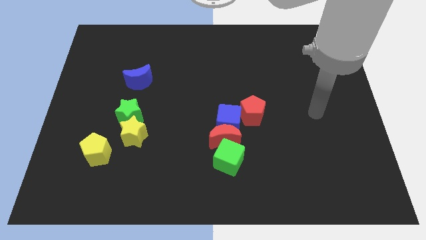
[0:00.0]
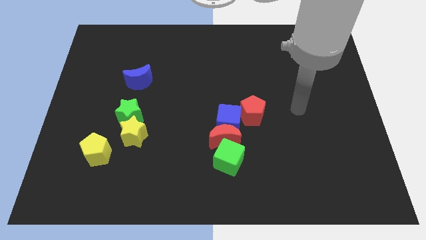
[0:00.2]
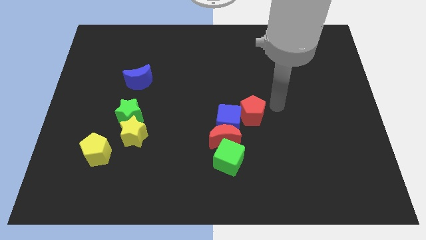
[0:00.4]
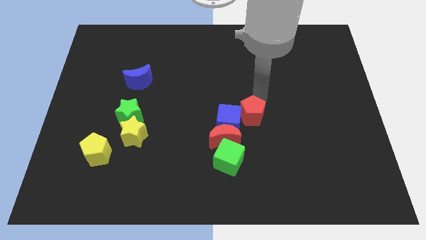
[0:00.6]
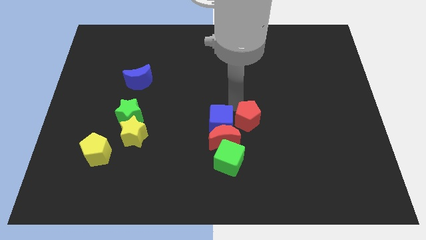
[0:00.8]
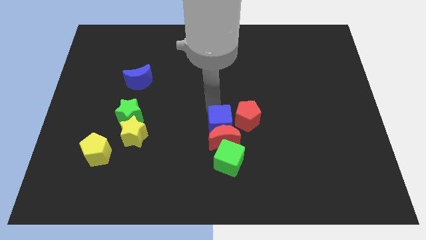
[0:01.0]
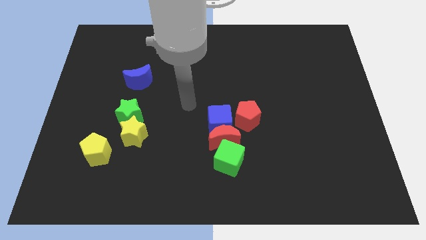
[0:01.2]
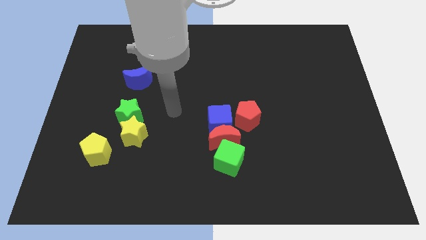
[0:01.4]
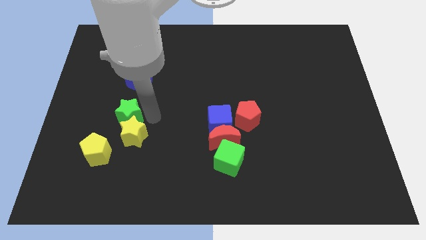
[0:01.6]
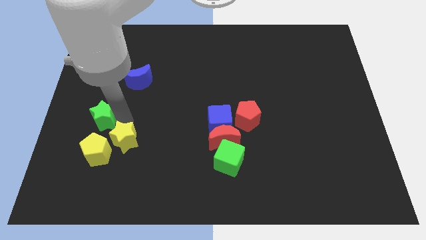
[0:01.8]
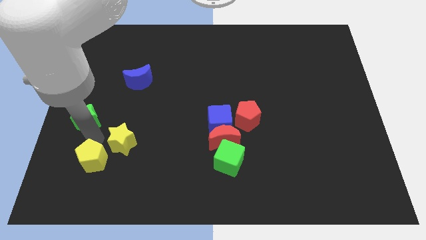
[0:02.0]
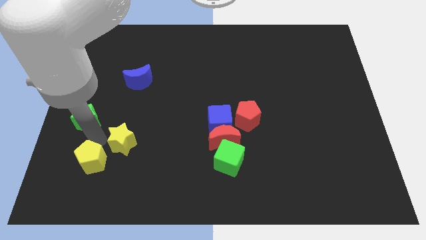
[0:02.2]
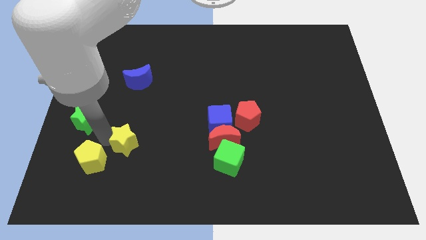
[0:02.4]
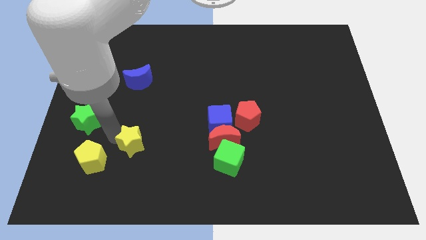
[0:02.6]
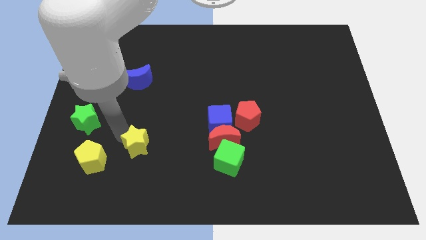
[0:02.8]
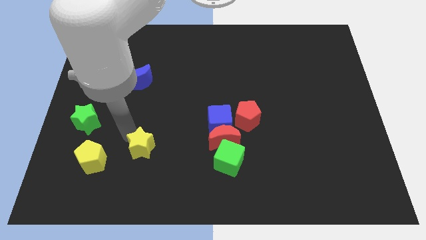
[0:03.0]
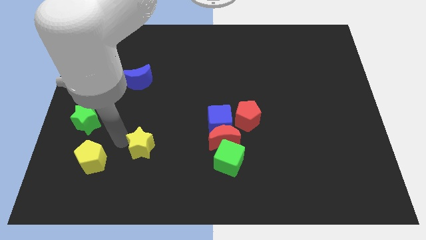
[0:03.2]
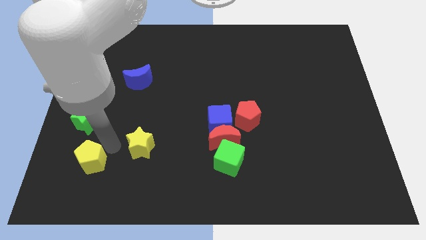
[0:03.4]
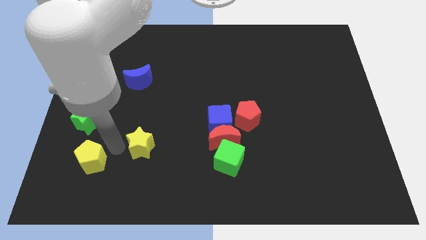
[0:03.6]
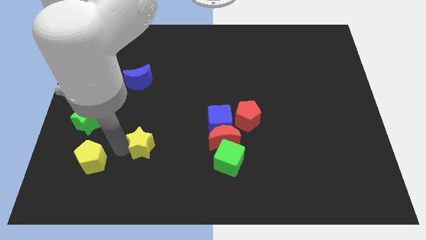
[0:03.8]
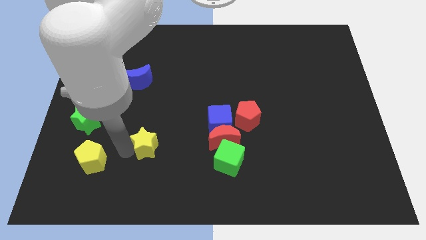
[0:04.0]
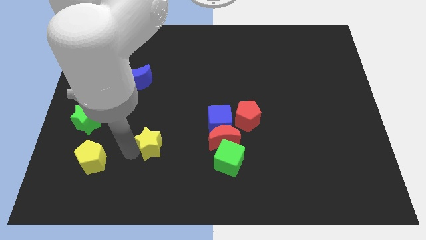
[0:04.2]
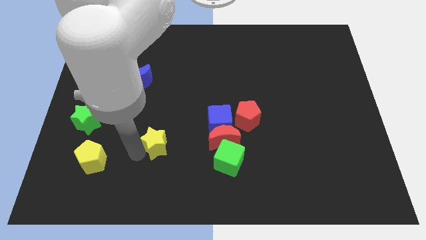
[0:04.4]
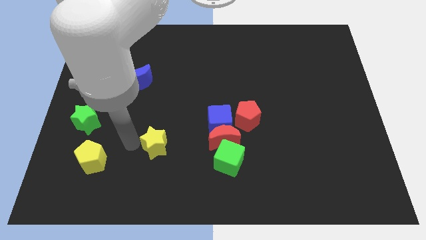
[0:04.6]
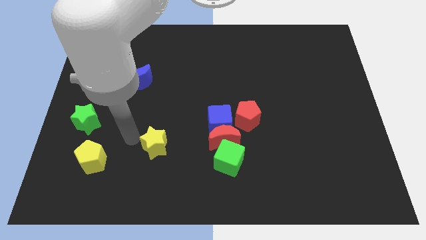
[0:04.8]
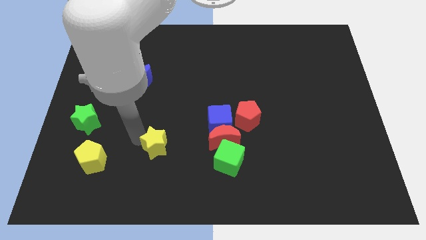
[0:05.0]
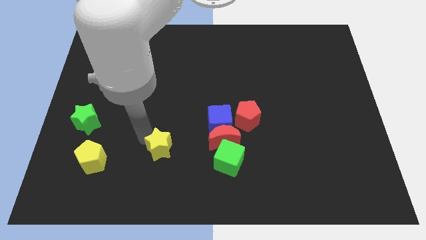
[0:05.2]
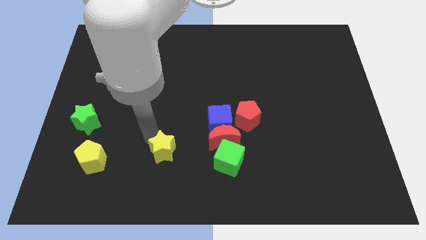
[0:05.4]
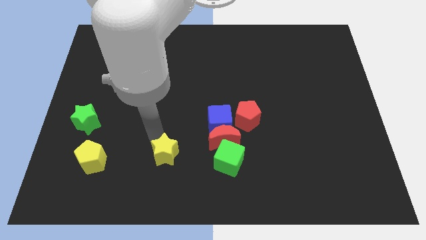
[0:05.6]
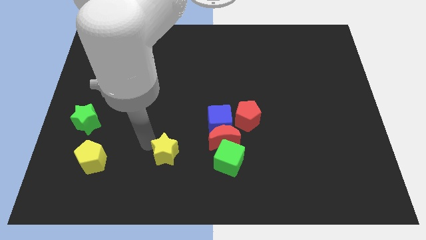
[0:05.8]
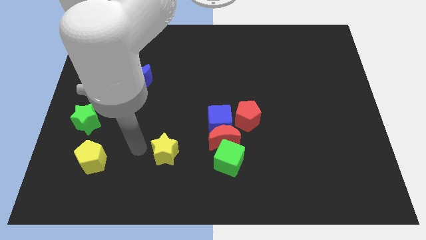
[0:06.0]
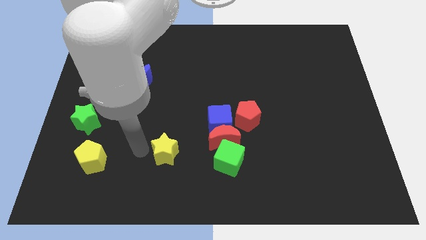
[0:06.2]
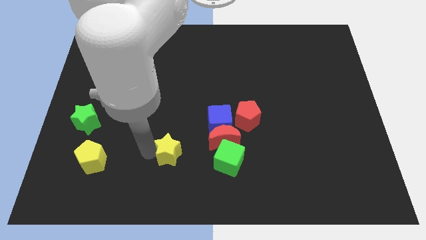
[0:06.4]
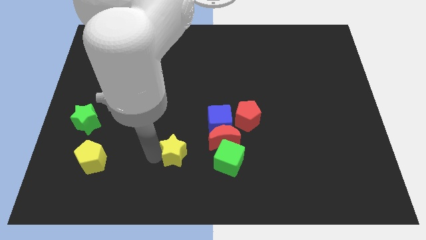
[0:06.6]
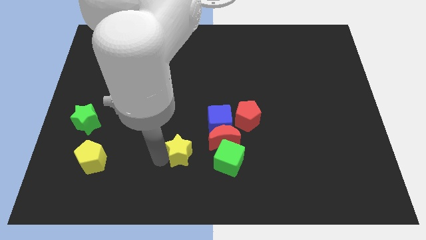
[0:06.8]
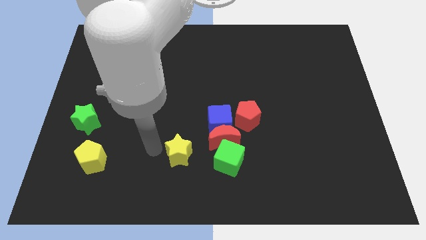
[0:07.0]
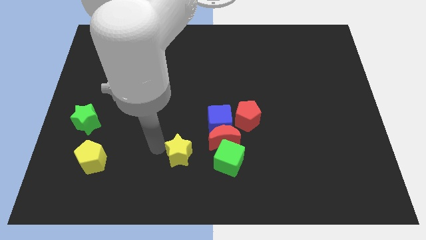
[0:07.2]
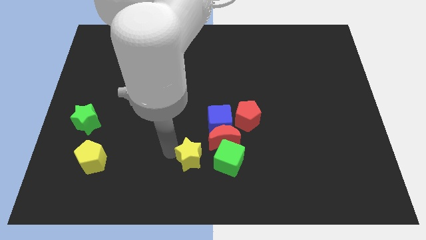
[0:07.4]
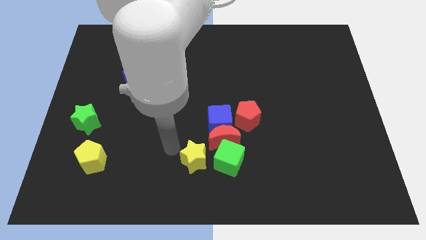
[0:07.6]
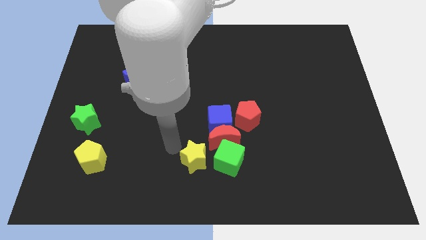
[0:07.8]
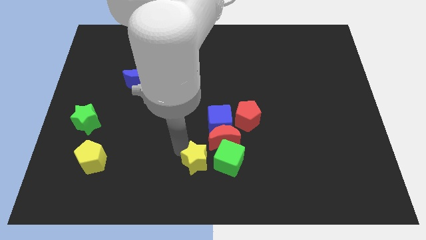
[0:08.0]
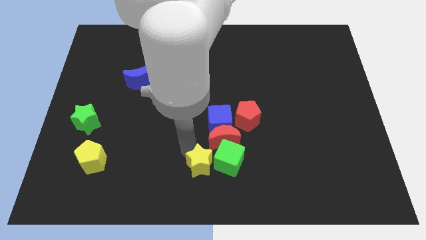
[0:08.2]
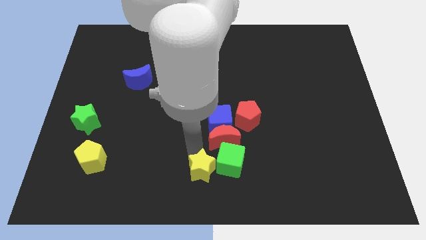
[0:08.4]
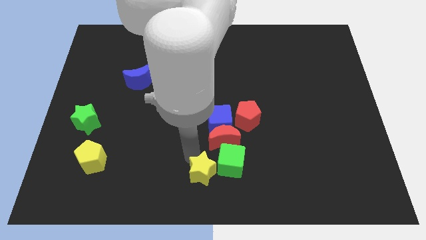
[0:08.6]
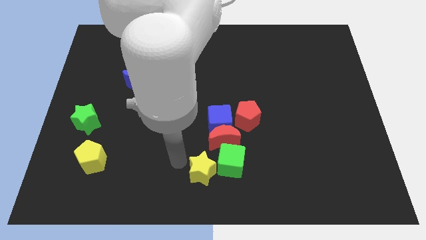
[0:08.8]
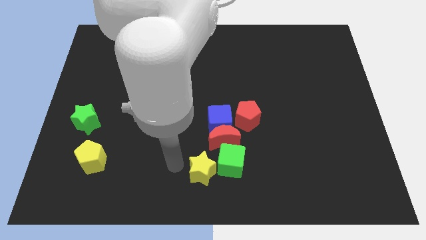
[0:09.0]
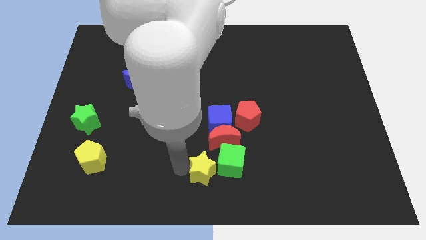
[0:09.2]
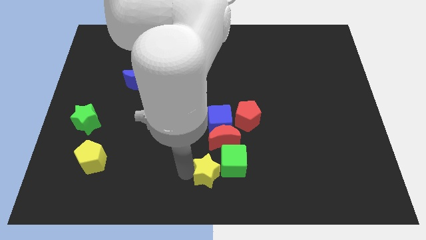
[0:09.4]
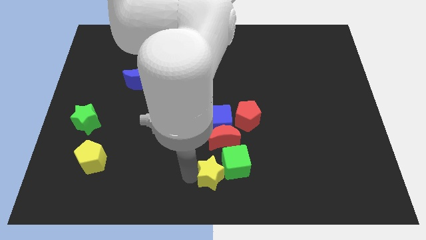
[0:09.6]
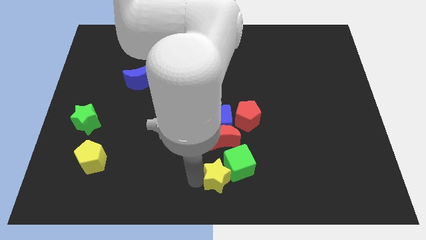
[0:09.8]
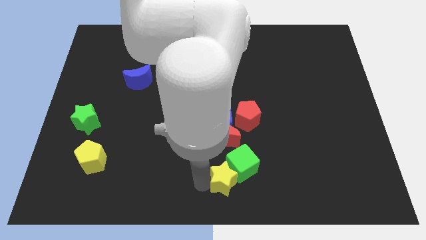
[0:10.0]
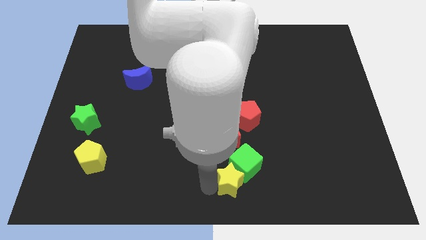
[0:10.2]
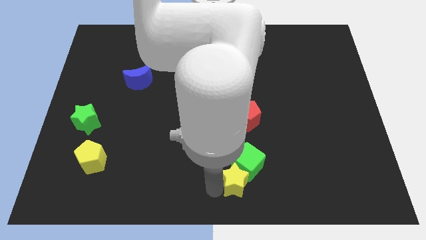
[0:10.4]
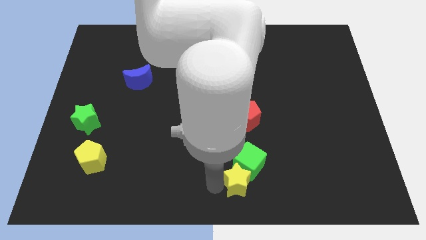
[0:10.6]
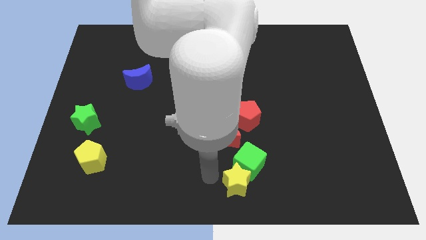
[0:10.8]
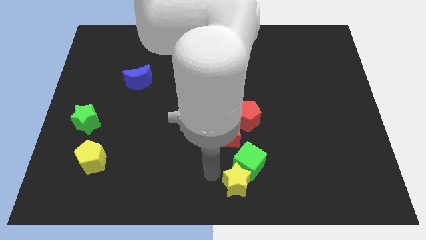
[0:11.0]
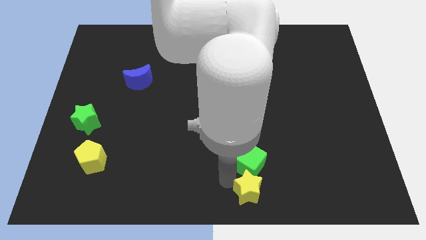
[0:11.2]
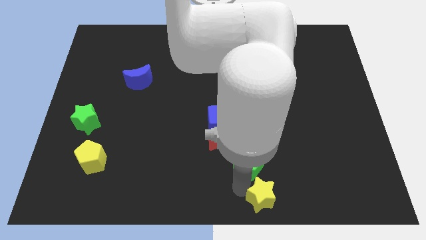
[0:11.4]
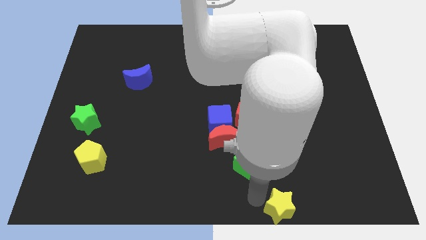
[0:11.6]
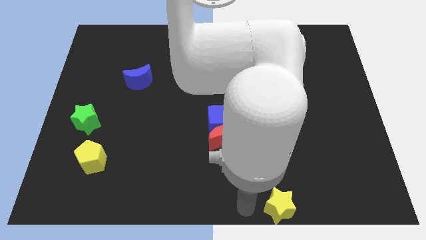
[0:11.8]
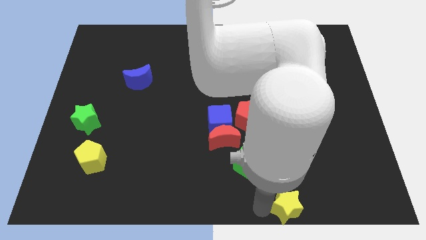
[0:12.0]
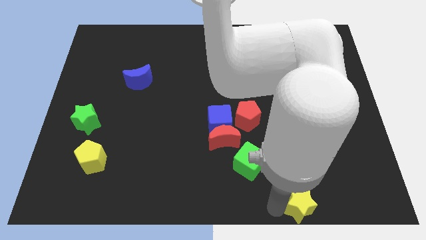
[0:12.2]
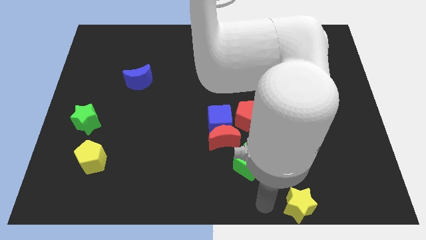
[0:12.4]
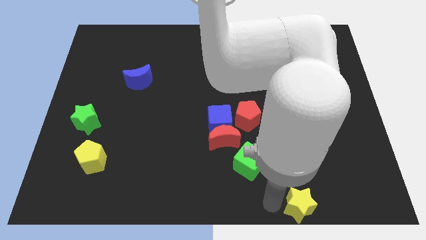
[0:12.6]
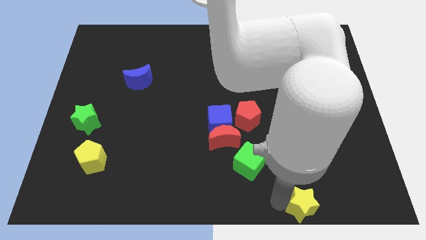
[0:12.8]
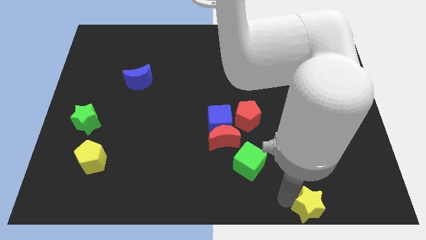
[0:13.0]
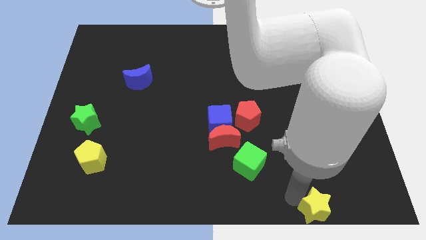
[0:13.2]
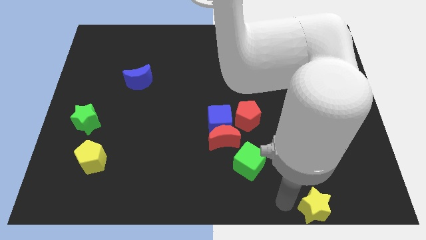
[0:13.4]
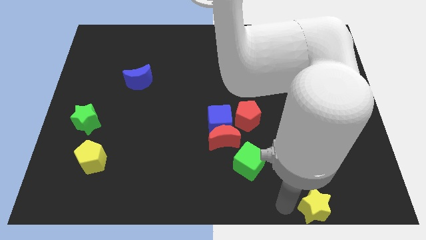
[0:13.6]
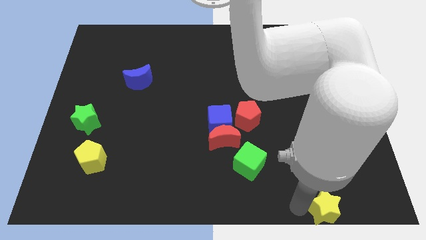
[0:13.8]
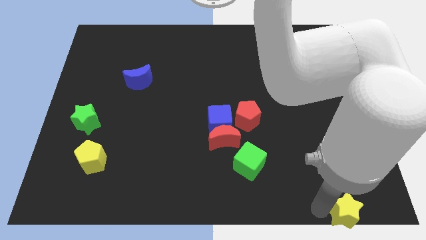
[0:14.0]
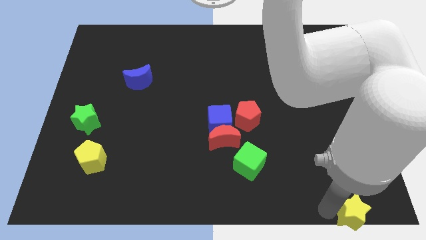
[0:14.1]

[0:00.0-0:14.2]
push the yellow star to the bottom right corner
